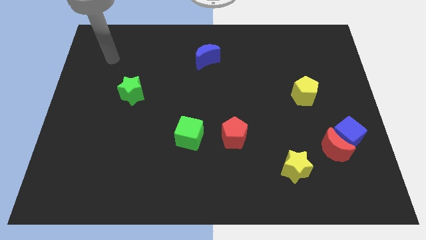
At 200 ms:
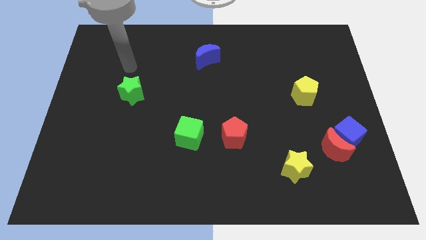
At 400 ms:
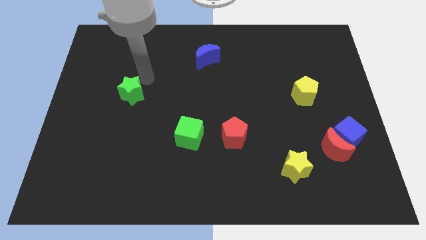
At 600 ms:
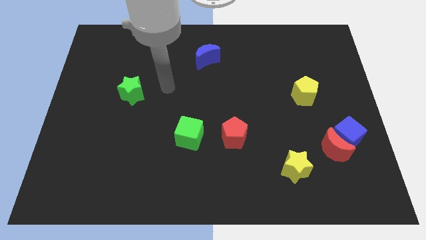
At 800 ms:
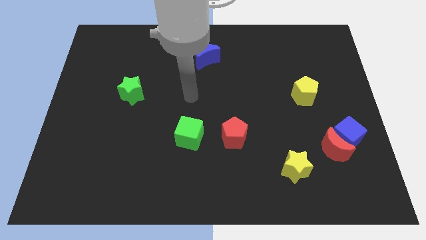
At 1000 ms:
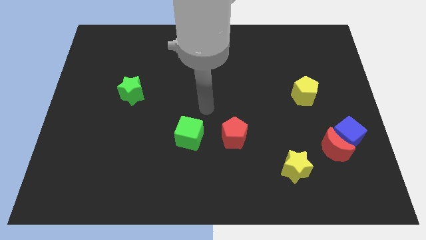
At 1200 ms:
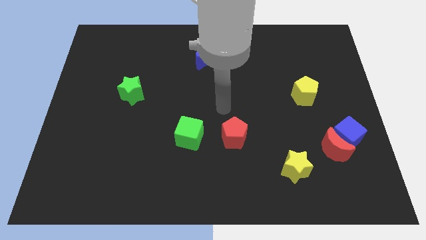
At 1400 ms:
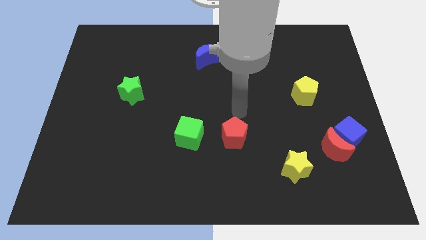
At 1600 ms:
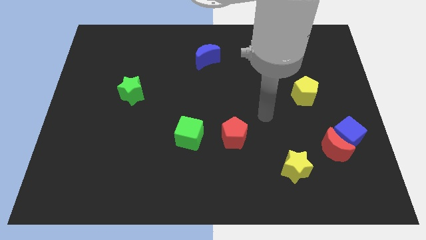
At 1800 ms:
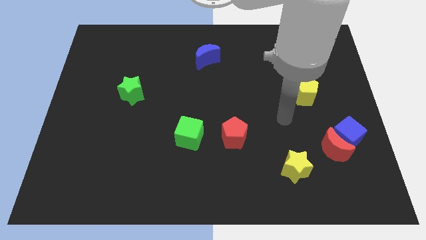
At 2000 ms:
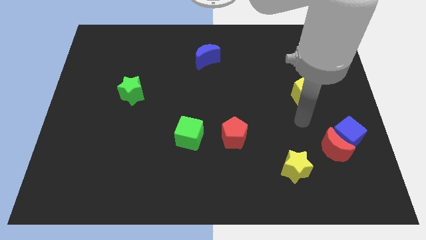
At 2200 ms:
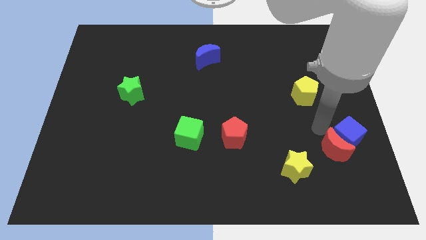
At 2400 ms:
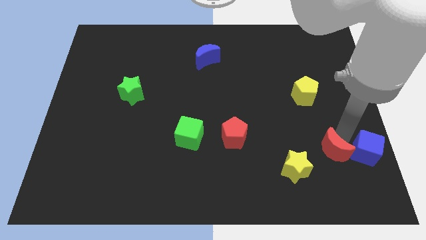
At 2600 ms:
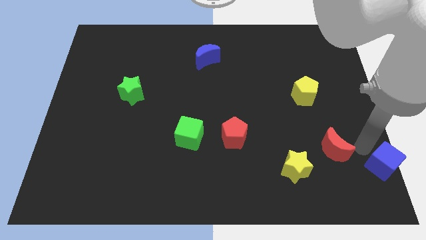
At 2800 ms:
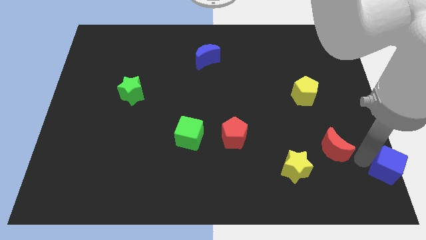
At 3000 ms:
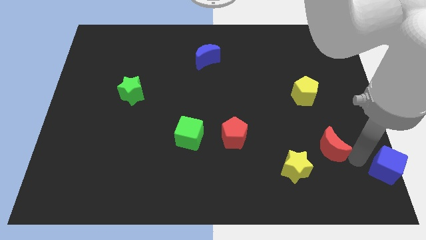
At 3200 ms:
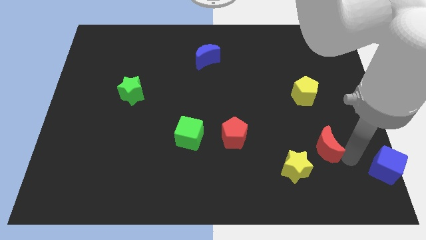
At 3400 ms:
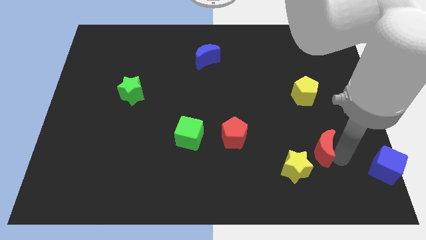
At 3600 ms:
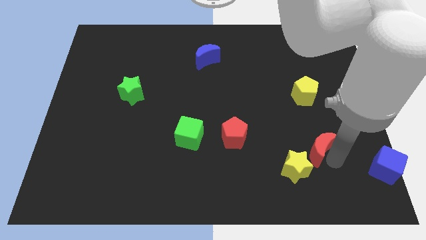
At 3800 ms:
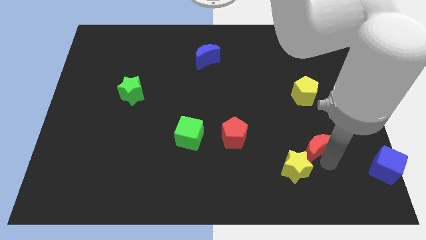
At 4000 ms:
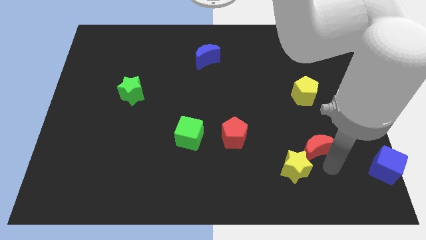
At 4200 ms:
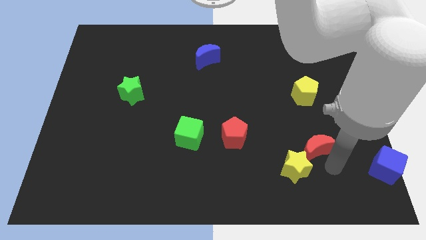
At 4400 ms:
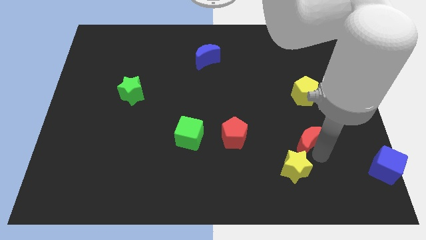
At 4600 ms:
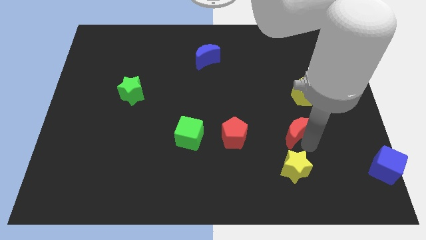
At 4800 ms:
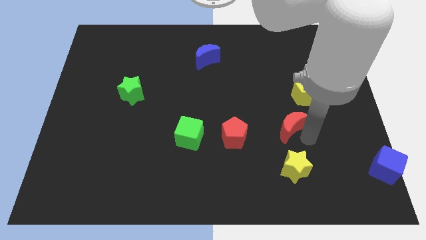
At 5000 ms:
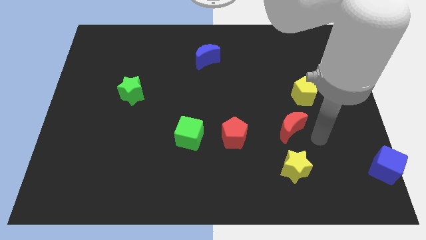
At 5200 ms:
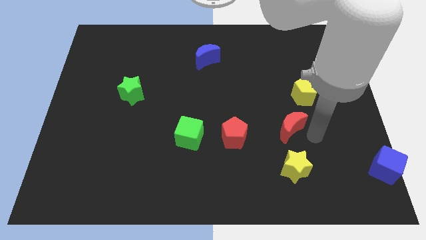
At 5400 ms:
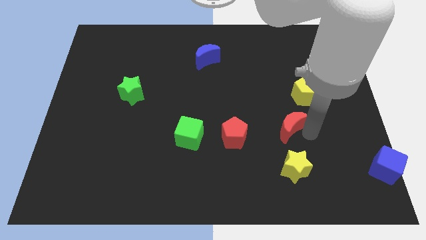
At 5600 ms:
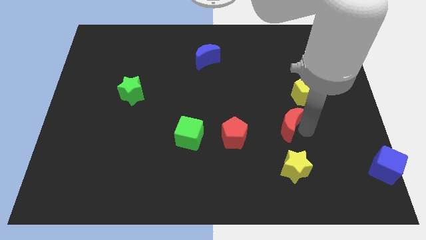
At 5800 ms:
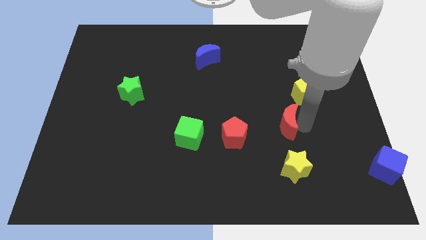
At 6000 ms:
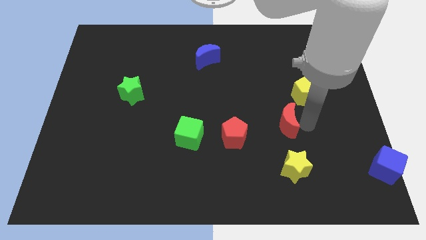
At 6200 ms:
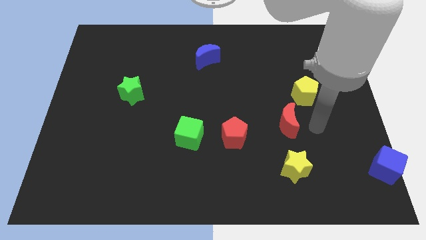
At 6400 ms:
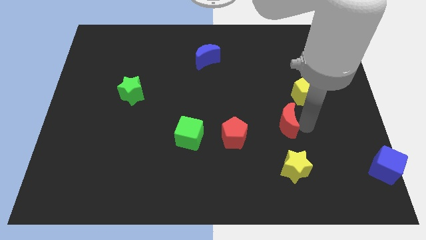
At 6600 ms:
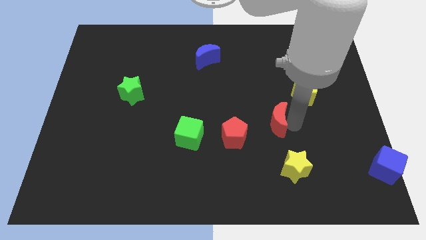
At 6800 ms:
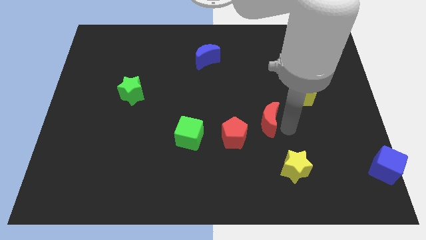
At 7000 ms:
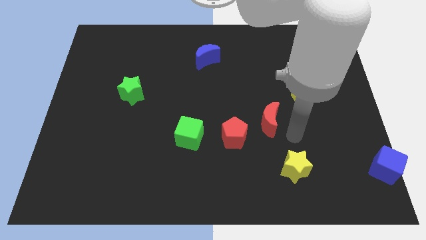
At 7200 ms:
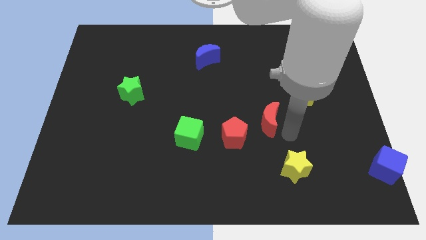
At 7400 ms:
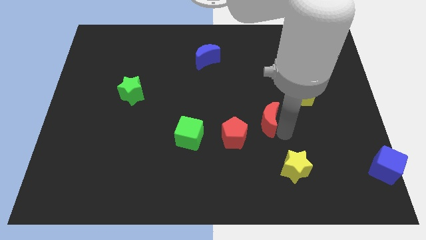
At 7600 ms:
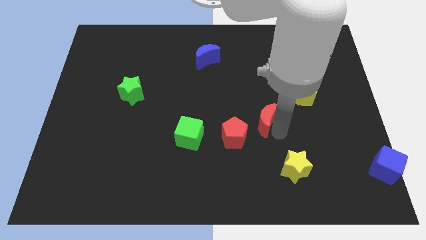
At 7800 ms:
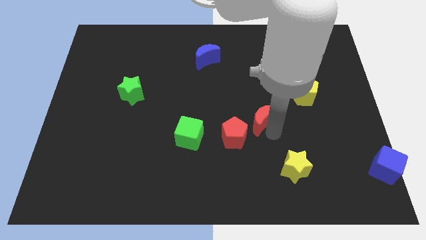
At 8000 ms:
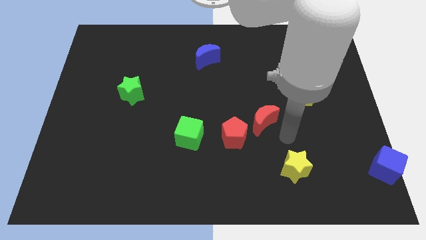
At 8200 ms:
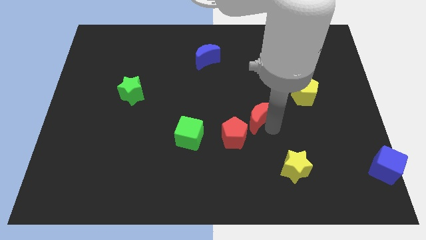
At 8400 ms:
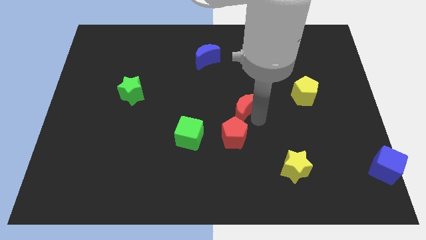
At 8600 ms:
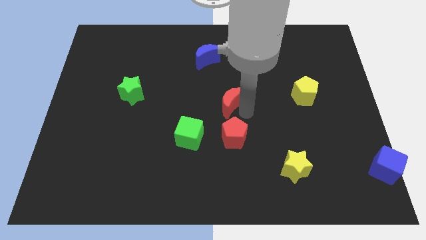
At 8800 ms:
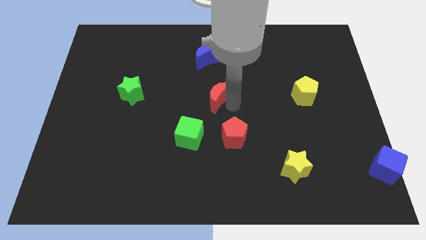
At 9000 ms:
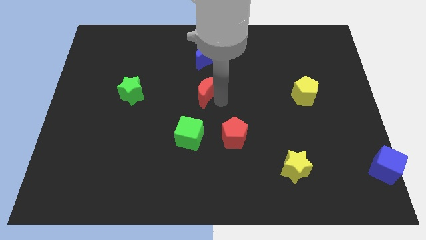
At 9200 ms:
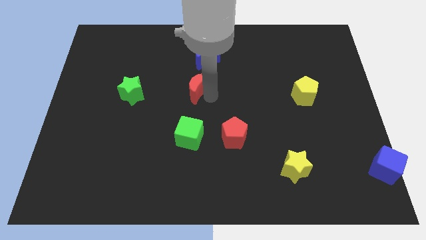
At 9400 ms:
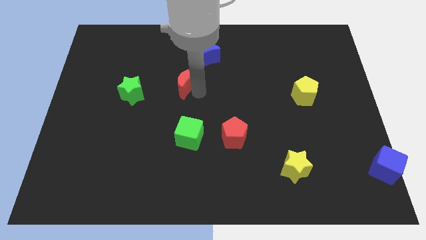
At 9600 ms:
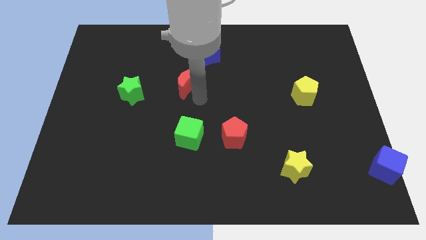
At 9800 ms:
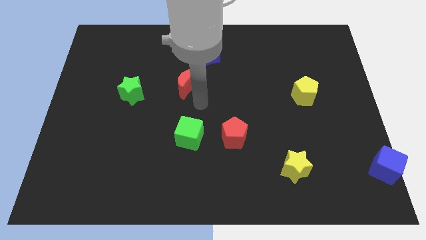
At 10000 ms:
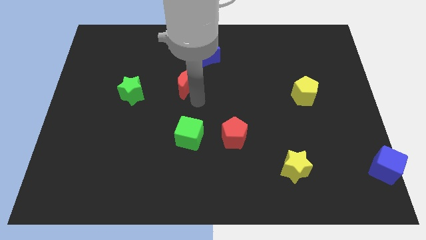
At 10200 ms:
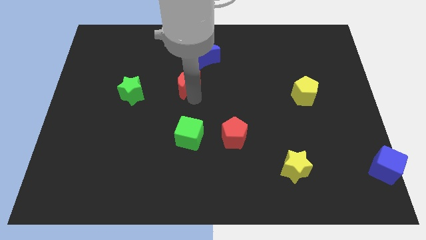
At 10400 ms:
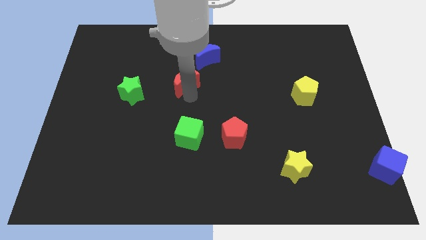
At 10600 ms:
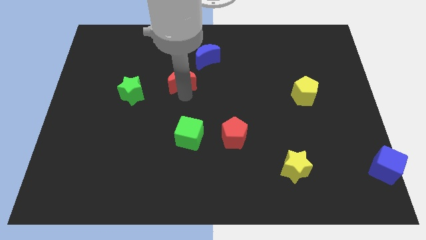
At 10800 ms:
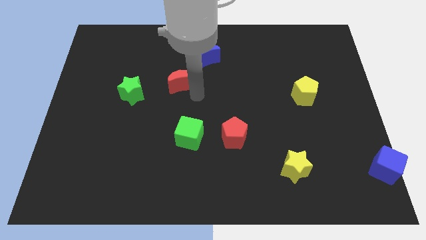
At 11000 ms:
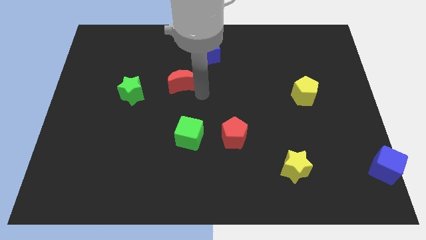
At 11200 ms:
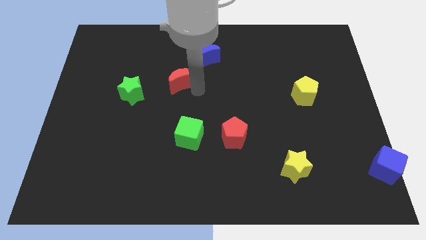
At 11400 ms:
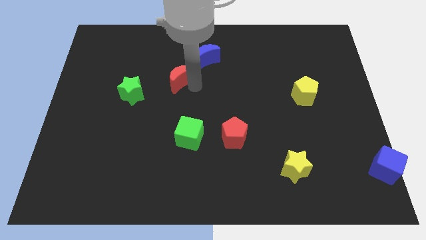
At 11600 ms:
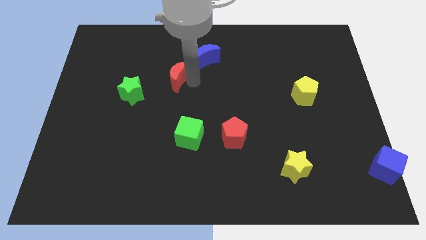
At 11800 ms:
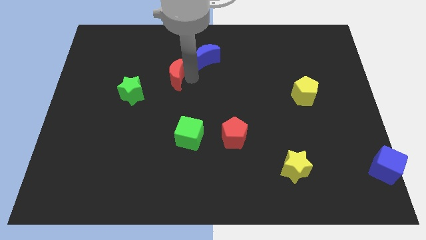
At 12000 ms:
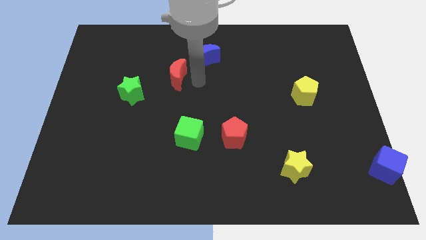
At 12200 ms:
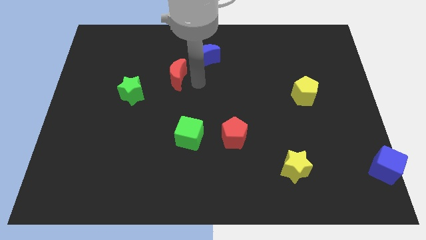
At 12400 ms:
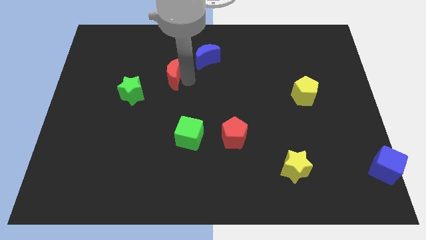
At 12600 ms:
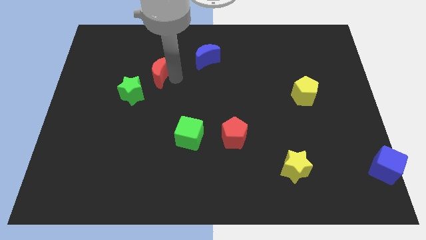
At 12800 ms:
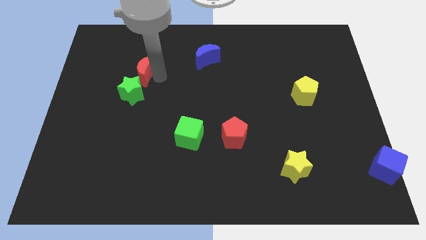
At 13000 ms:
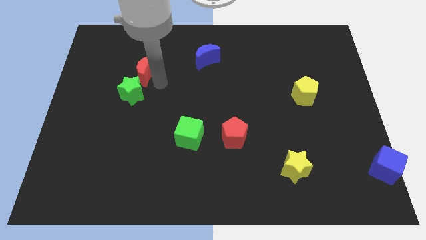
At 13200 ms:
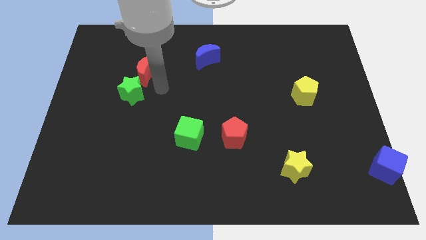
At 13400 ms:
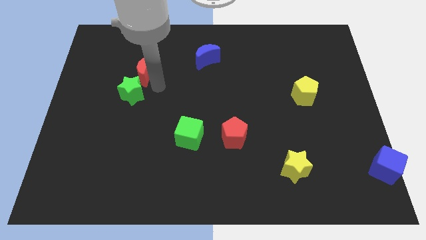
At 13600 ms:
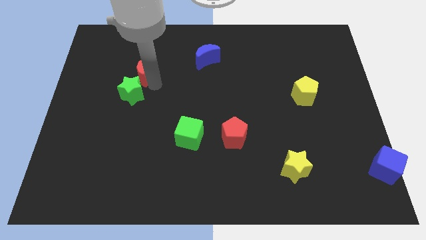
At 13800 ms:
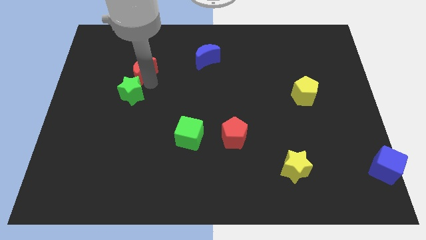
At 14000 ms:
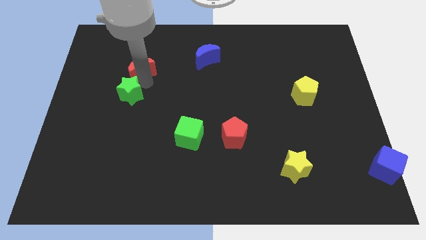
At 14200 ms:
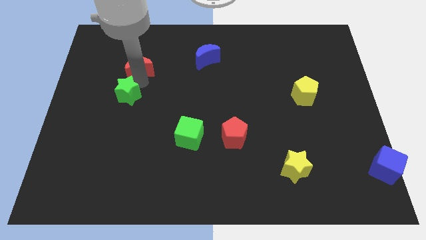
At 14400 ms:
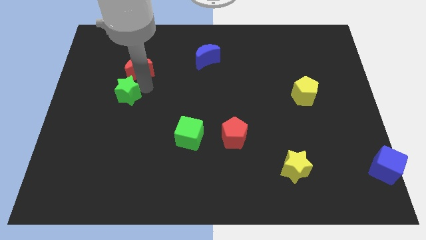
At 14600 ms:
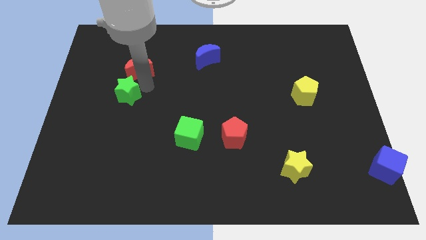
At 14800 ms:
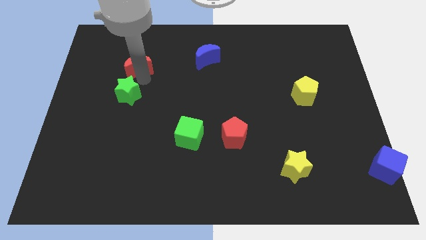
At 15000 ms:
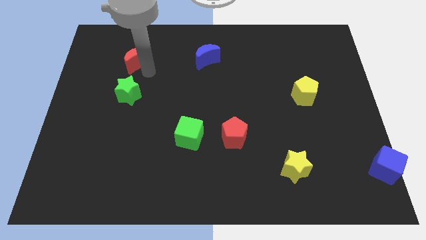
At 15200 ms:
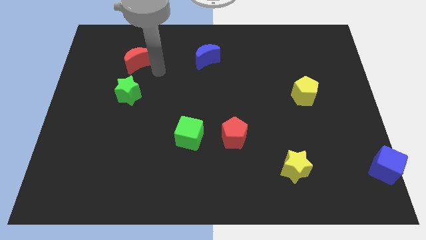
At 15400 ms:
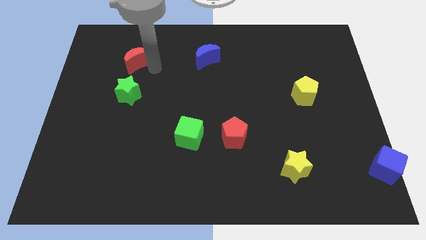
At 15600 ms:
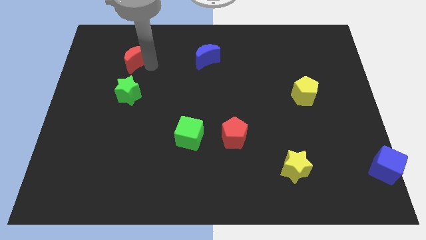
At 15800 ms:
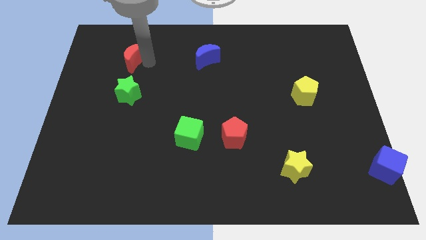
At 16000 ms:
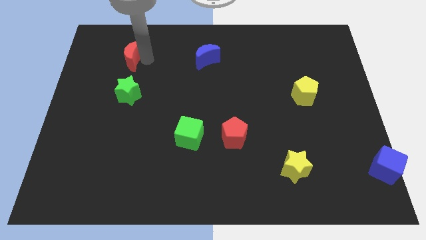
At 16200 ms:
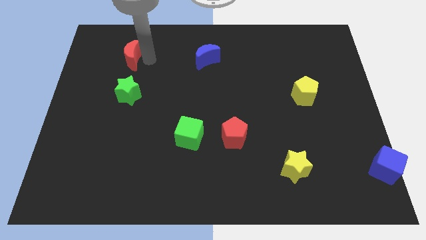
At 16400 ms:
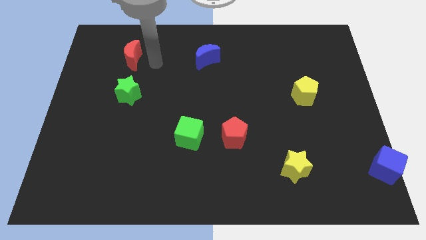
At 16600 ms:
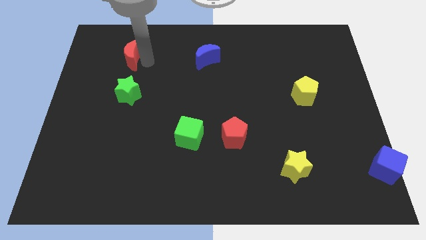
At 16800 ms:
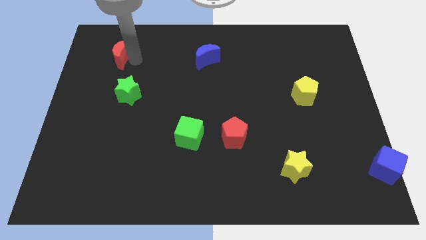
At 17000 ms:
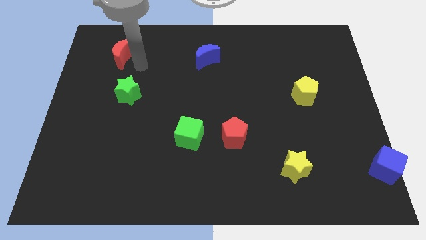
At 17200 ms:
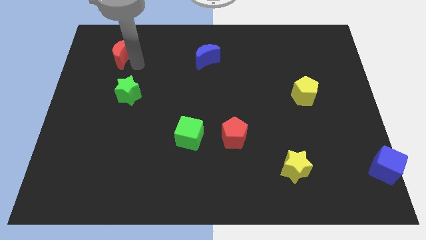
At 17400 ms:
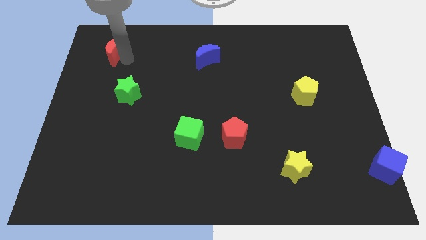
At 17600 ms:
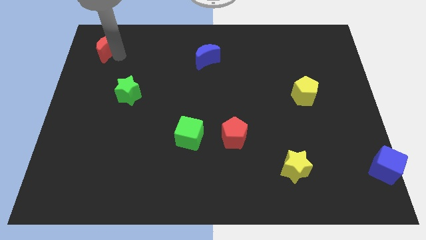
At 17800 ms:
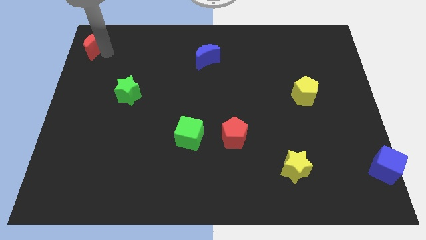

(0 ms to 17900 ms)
put the red moon to the top left of the board
